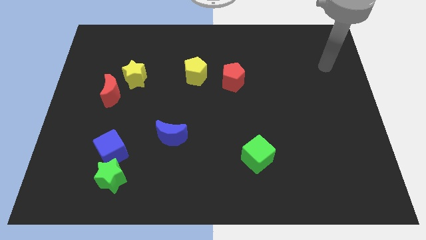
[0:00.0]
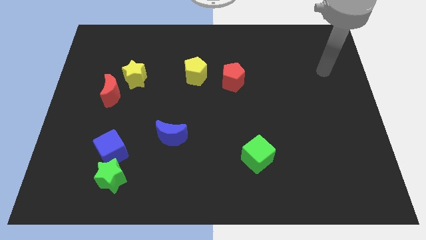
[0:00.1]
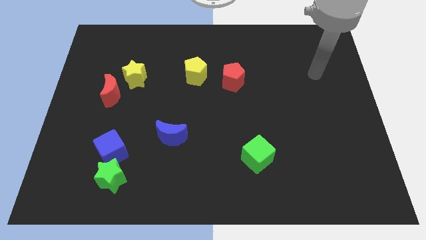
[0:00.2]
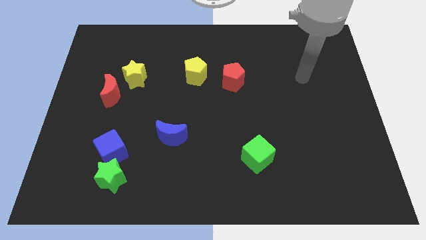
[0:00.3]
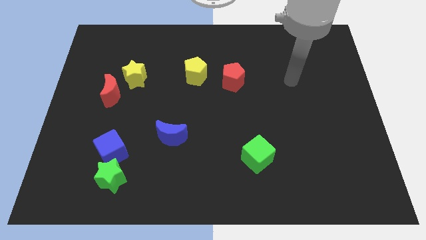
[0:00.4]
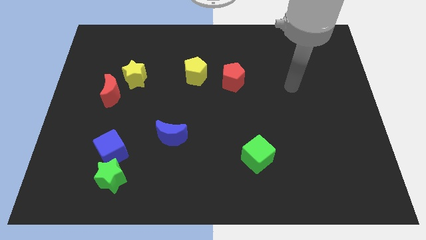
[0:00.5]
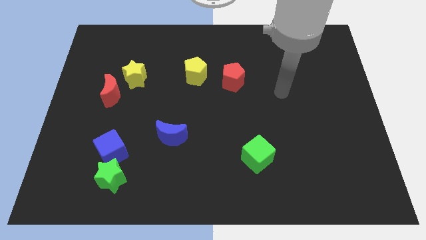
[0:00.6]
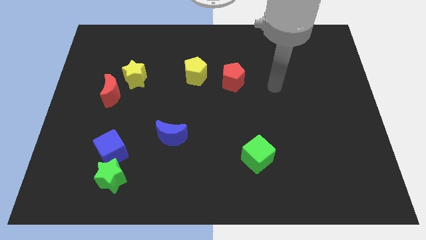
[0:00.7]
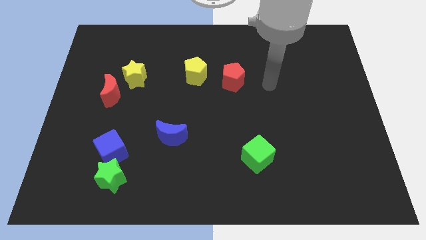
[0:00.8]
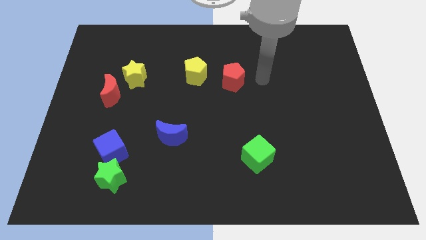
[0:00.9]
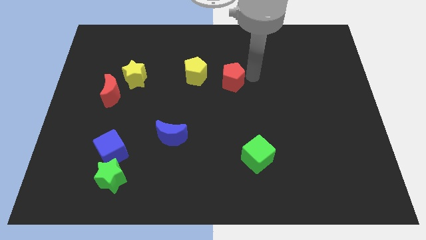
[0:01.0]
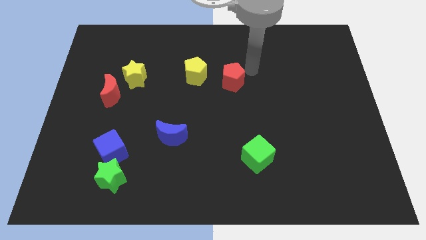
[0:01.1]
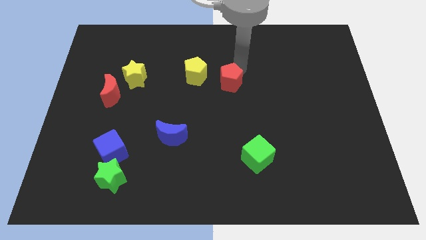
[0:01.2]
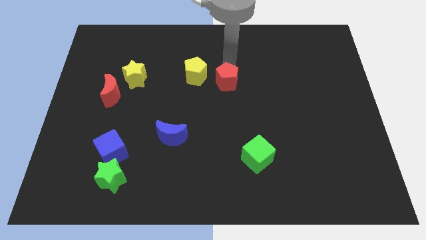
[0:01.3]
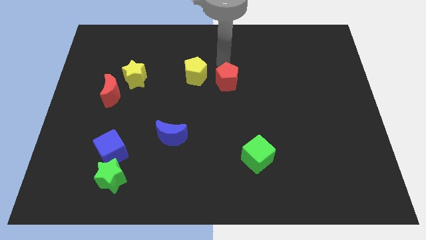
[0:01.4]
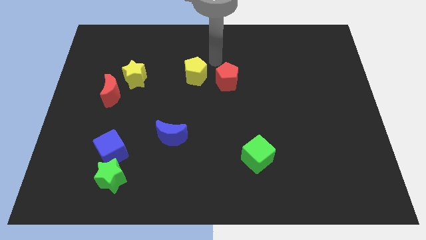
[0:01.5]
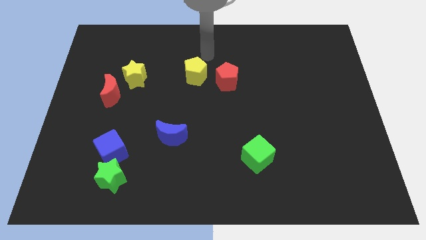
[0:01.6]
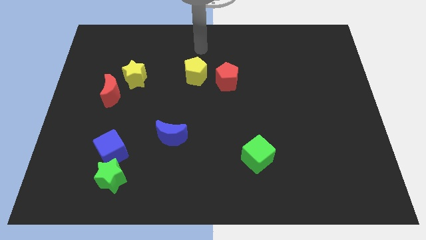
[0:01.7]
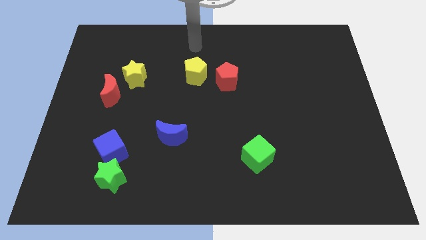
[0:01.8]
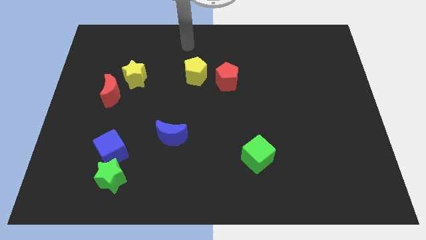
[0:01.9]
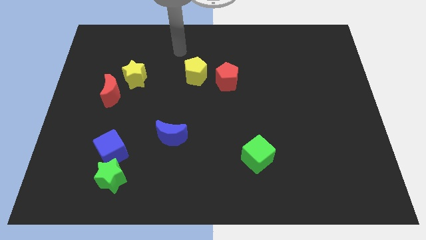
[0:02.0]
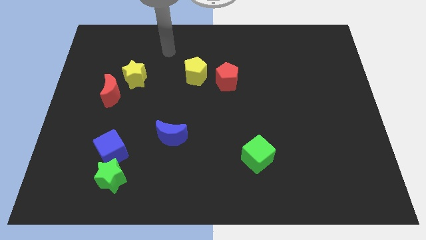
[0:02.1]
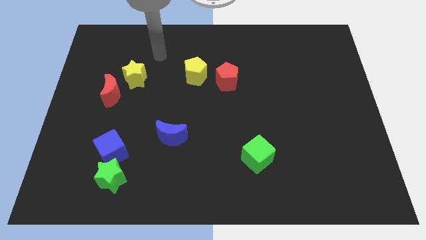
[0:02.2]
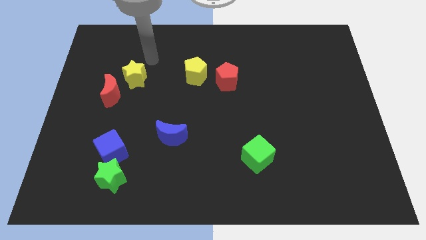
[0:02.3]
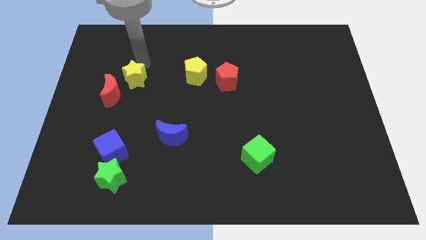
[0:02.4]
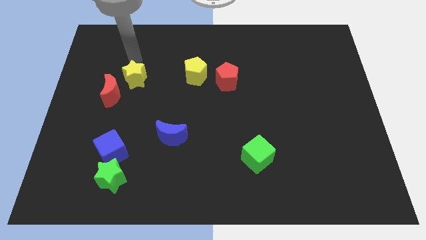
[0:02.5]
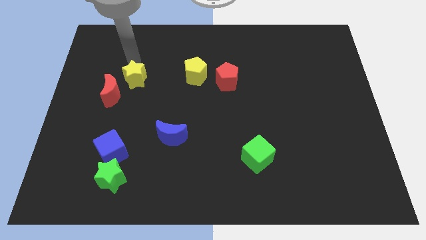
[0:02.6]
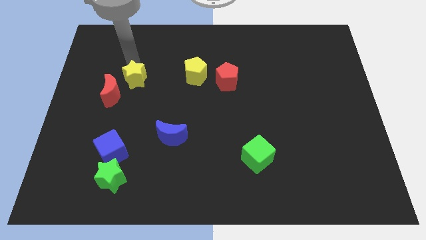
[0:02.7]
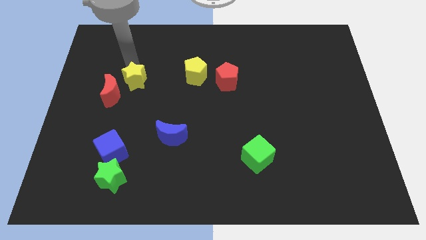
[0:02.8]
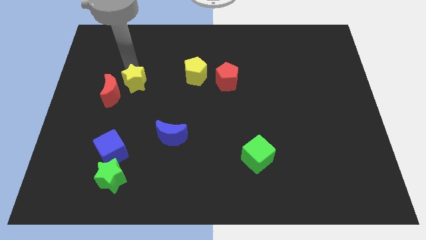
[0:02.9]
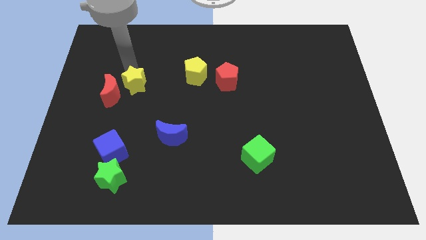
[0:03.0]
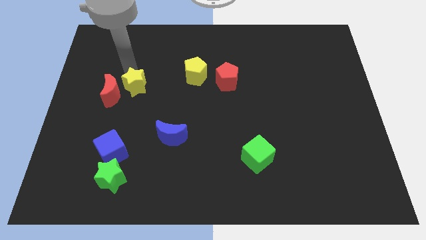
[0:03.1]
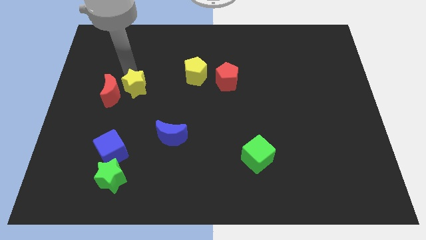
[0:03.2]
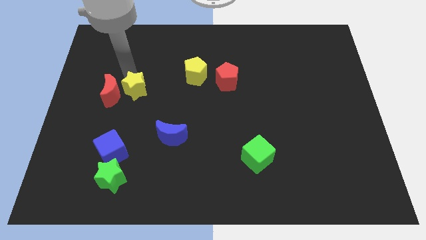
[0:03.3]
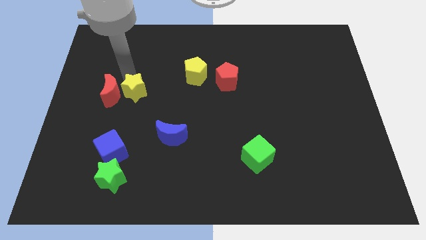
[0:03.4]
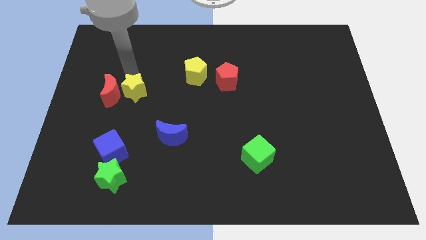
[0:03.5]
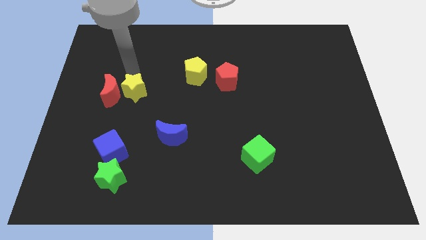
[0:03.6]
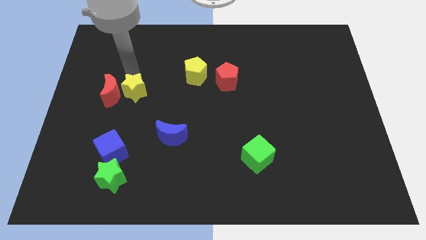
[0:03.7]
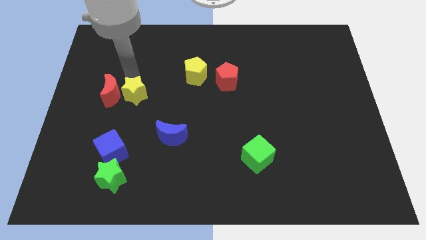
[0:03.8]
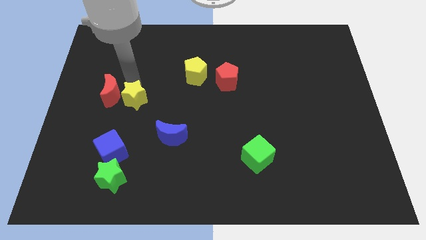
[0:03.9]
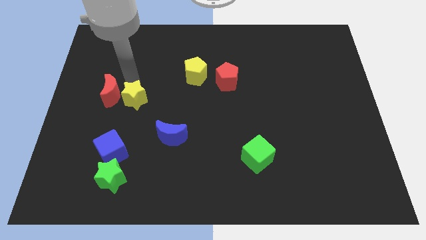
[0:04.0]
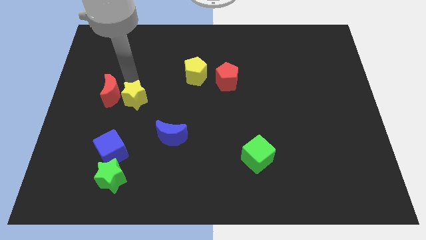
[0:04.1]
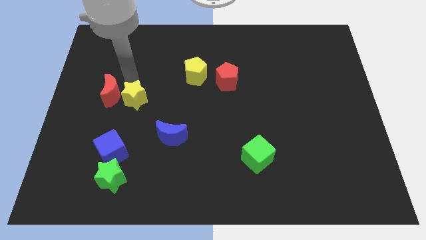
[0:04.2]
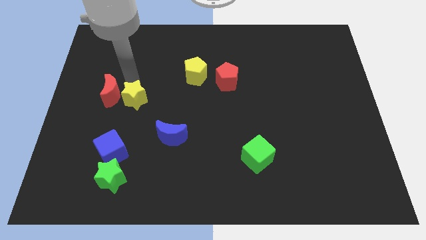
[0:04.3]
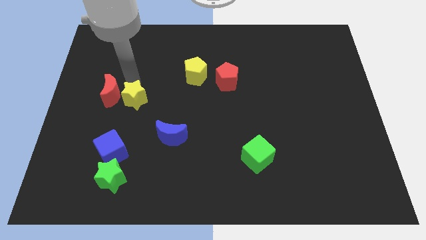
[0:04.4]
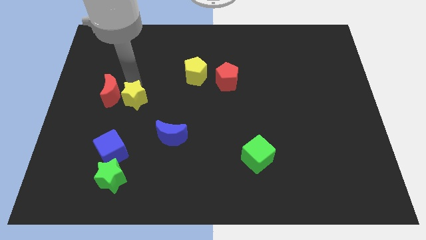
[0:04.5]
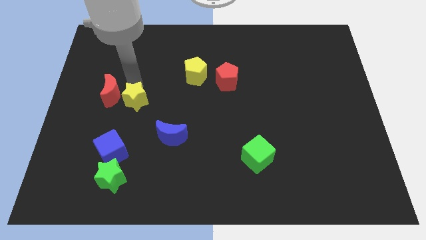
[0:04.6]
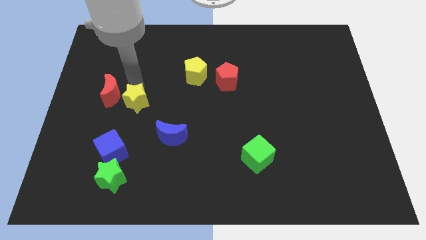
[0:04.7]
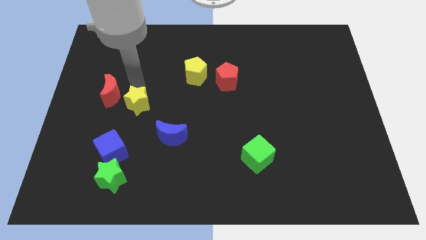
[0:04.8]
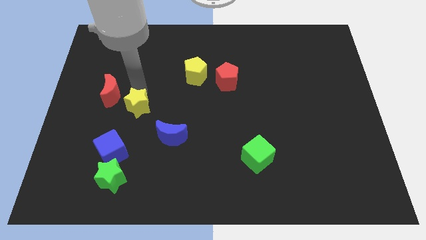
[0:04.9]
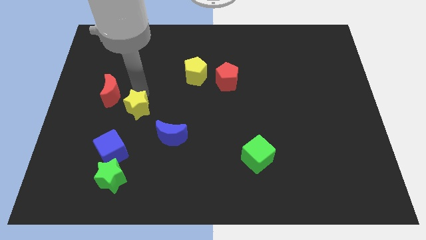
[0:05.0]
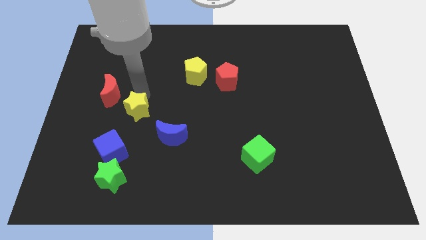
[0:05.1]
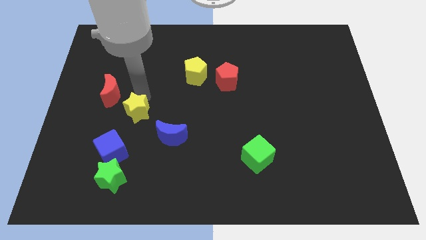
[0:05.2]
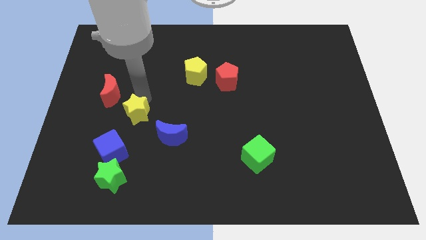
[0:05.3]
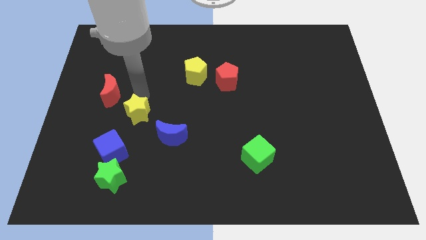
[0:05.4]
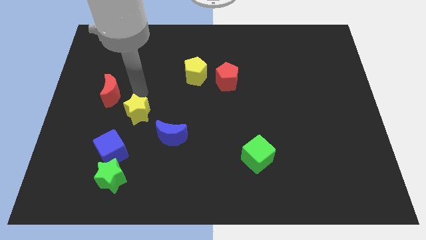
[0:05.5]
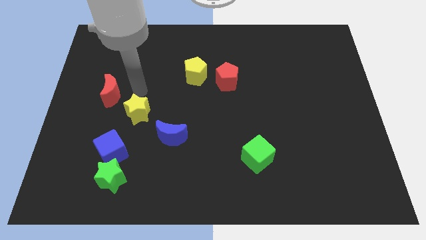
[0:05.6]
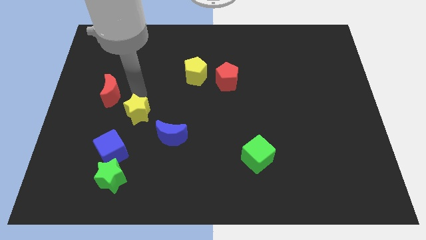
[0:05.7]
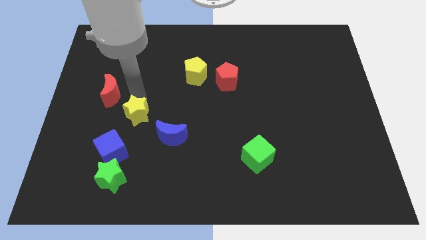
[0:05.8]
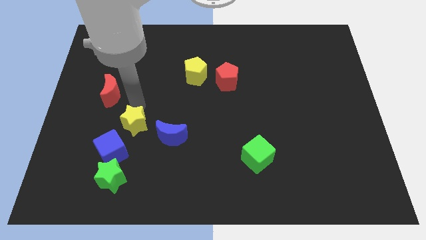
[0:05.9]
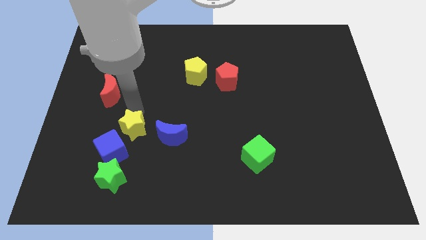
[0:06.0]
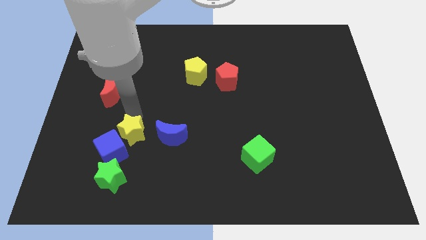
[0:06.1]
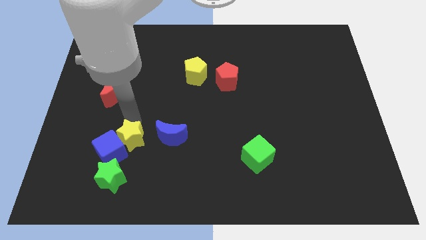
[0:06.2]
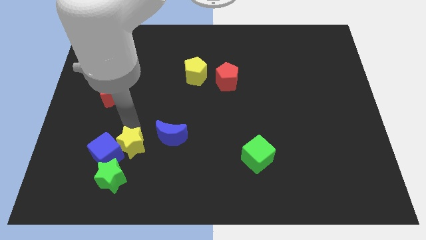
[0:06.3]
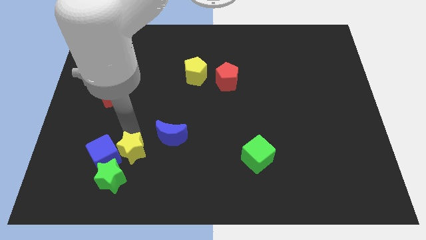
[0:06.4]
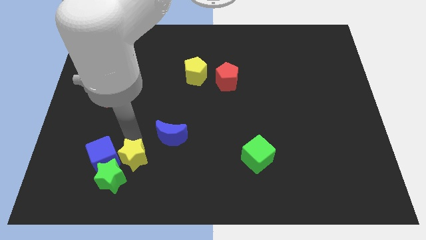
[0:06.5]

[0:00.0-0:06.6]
put the yellow star to the green star

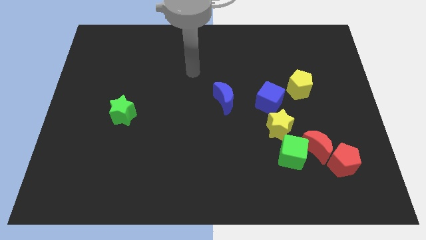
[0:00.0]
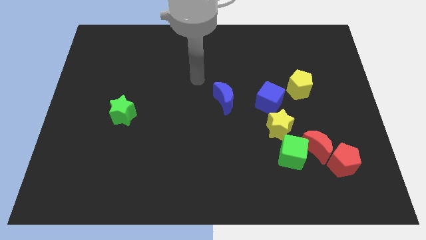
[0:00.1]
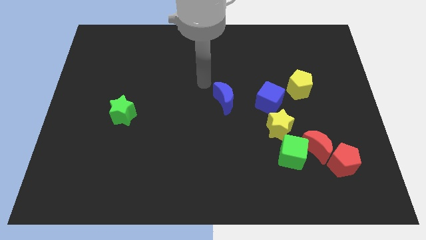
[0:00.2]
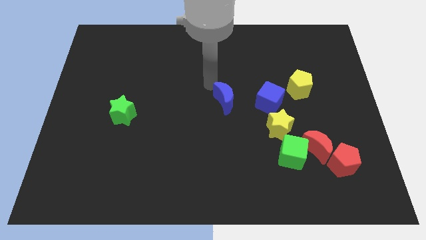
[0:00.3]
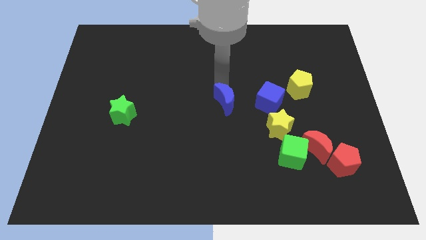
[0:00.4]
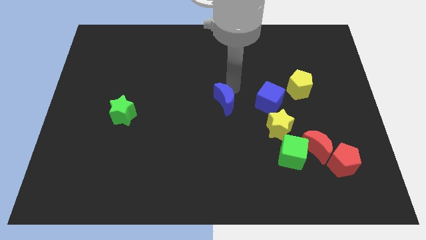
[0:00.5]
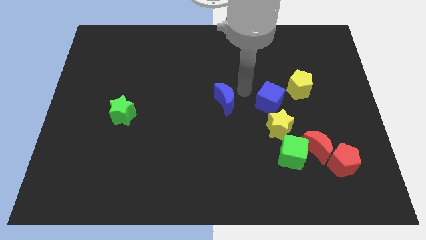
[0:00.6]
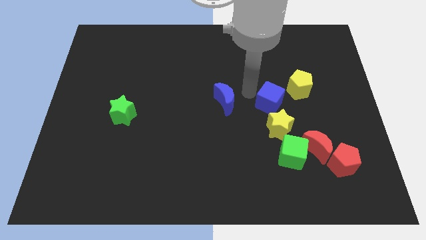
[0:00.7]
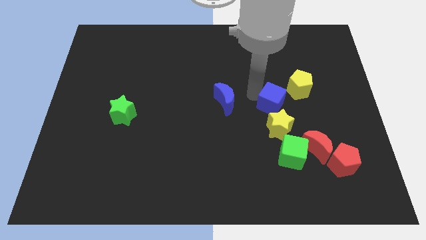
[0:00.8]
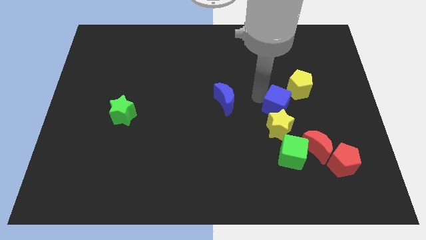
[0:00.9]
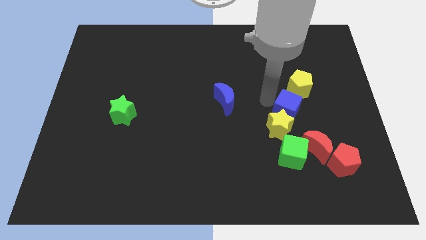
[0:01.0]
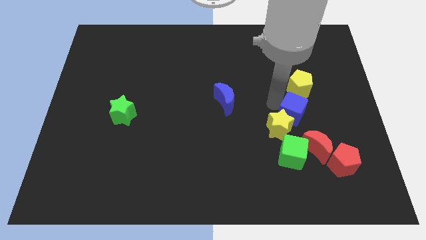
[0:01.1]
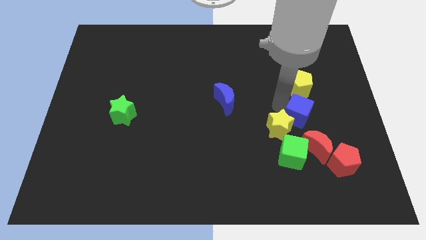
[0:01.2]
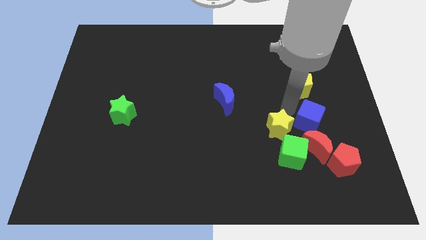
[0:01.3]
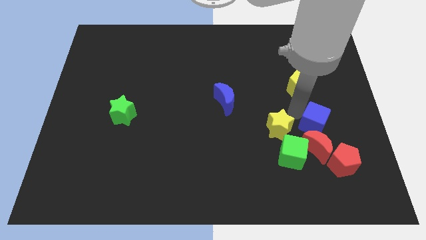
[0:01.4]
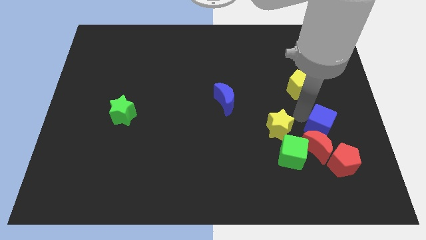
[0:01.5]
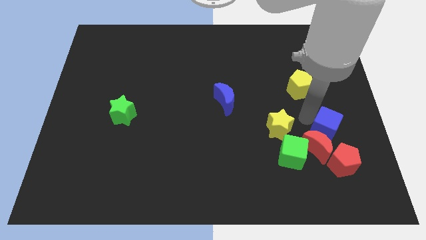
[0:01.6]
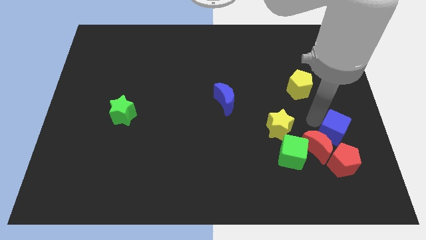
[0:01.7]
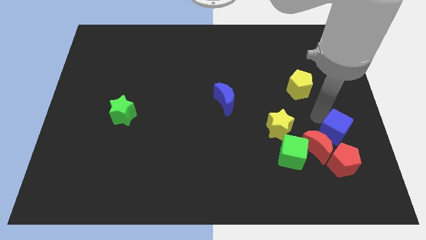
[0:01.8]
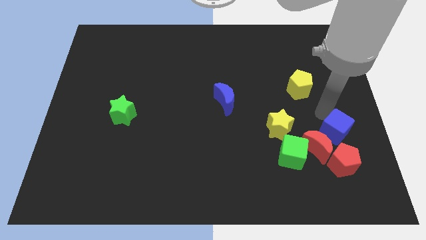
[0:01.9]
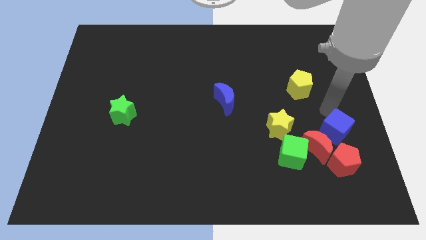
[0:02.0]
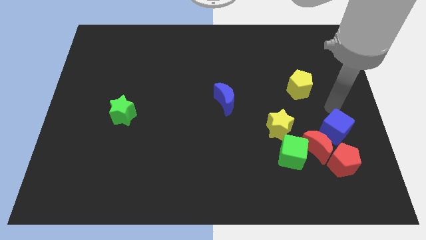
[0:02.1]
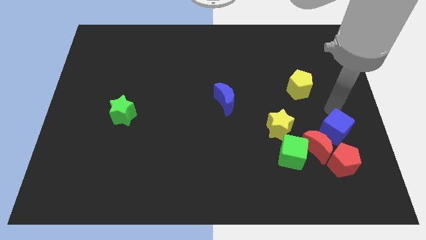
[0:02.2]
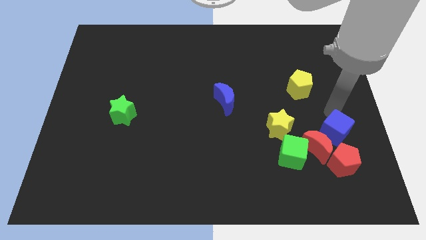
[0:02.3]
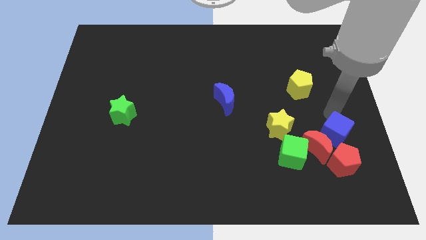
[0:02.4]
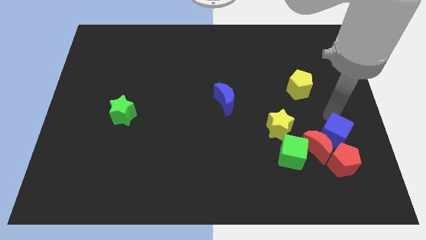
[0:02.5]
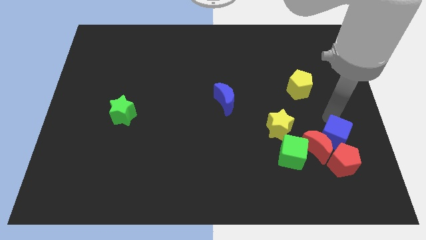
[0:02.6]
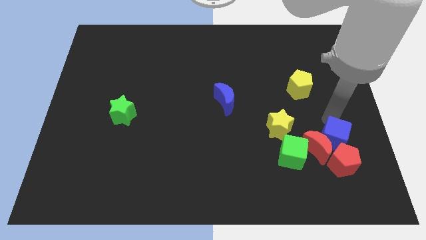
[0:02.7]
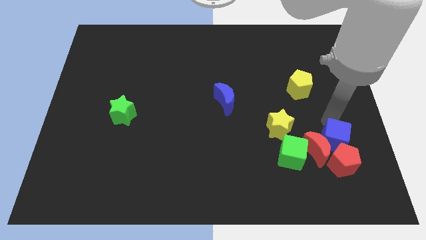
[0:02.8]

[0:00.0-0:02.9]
move the blue cube next to the red pentagon
